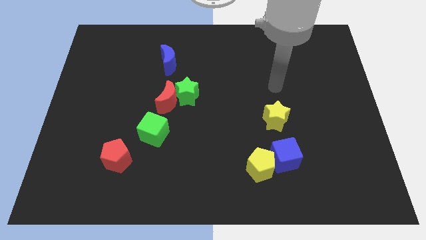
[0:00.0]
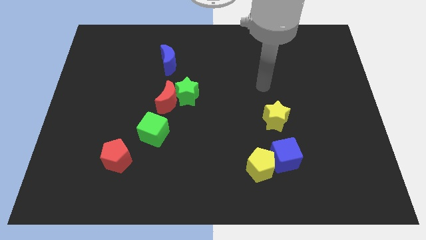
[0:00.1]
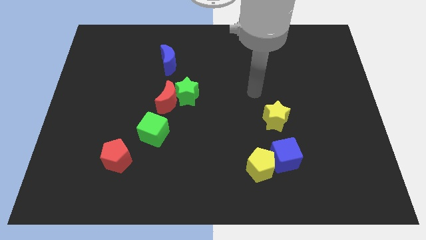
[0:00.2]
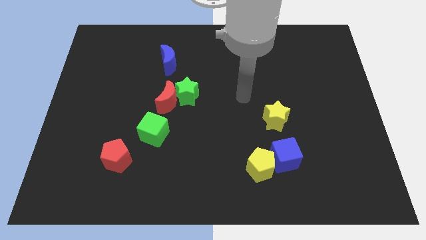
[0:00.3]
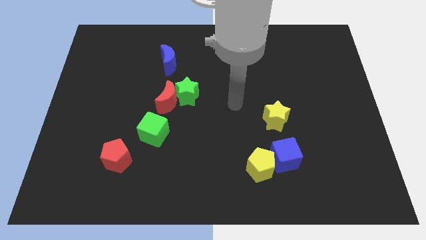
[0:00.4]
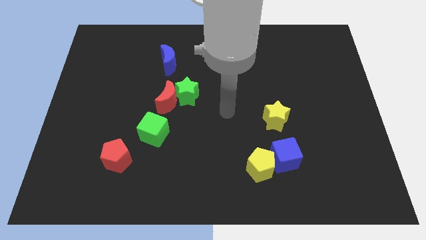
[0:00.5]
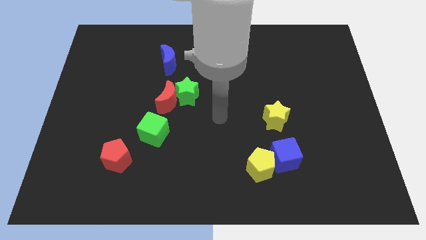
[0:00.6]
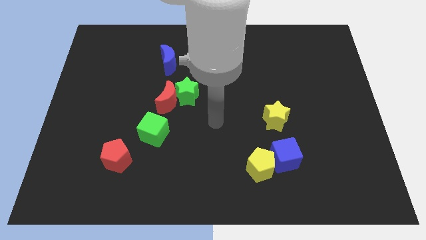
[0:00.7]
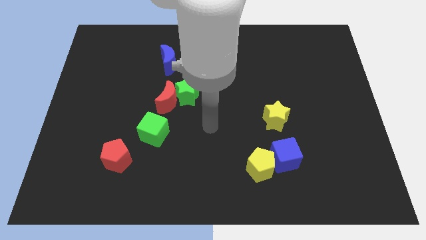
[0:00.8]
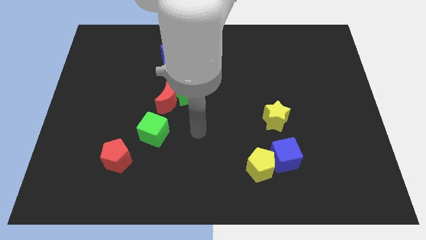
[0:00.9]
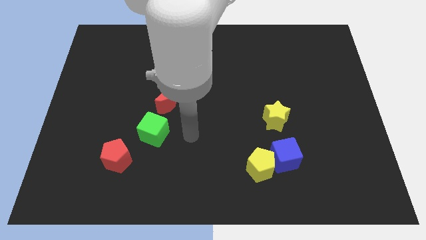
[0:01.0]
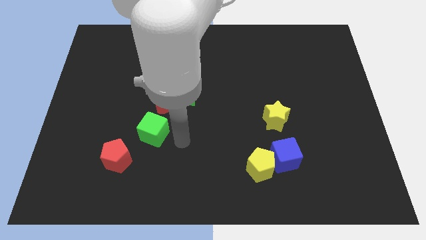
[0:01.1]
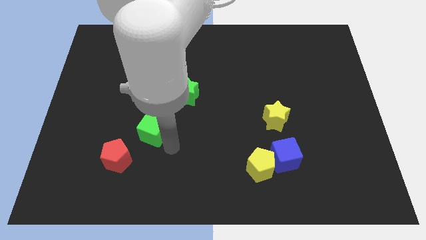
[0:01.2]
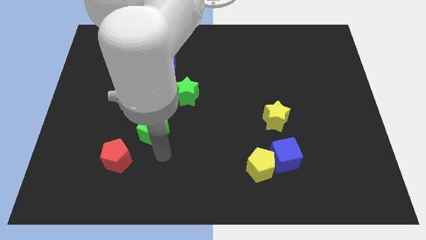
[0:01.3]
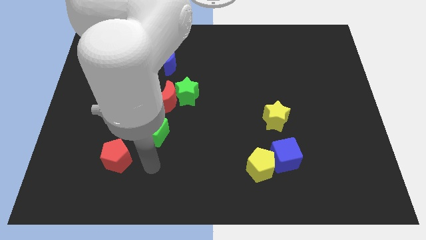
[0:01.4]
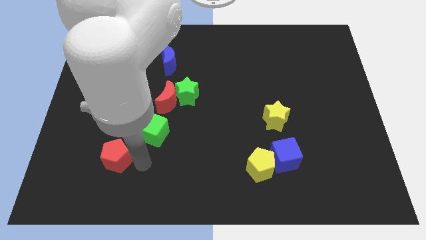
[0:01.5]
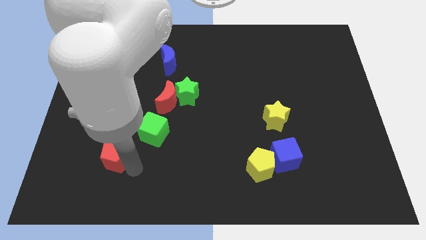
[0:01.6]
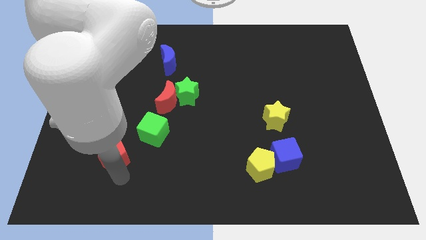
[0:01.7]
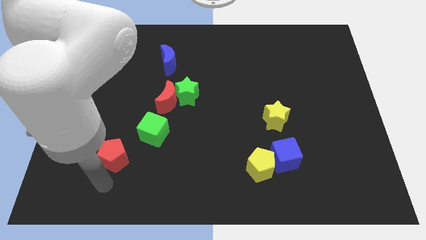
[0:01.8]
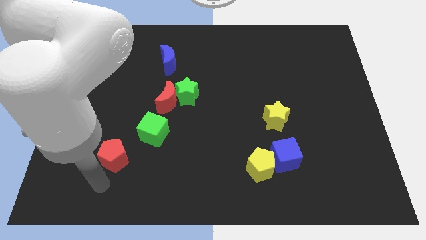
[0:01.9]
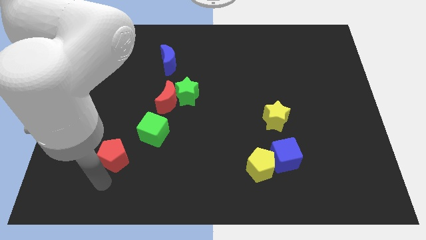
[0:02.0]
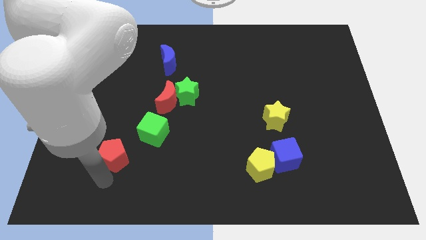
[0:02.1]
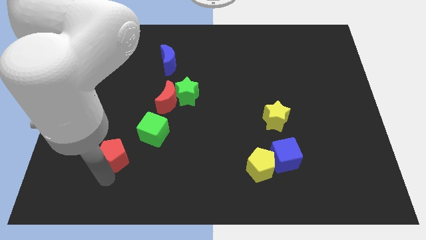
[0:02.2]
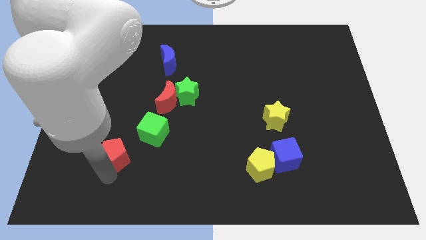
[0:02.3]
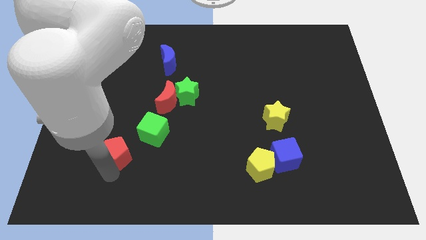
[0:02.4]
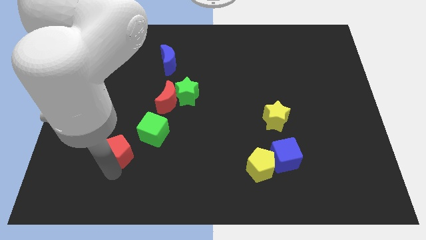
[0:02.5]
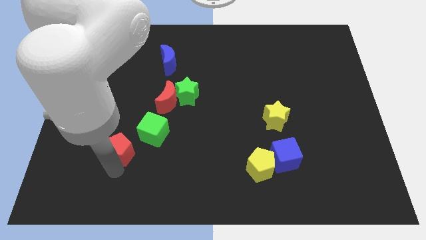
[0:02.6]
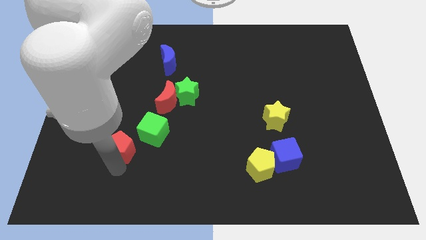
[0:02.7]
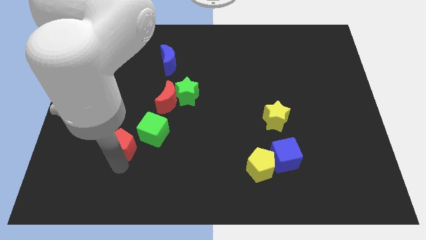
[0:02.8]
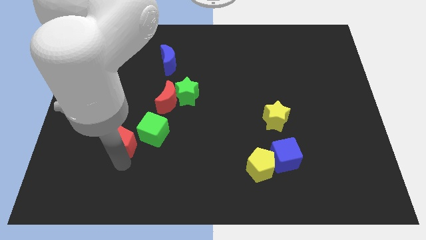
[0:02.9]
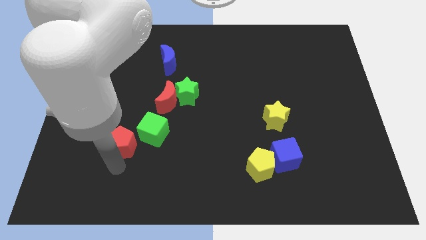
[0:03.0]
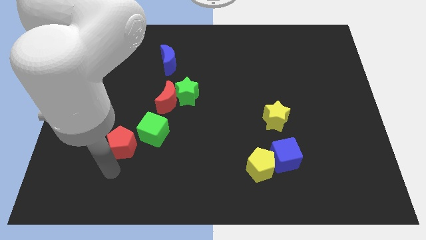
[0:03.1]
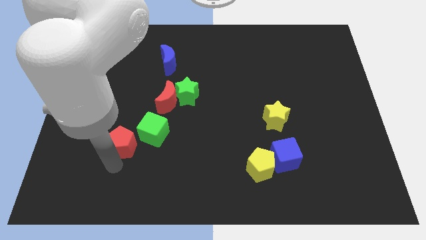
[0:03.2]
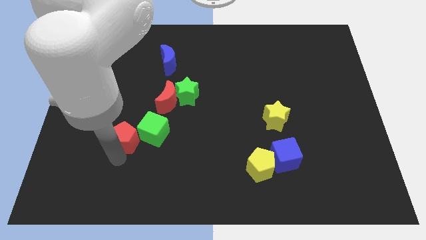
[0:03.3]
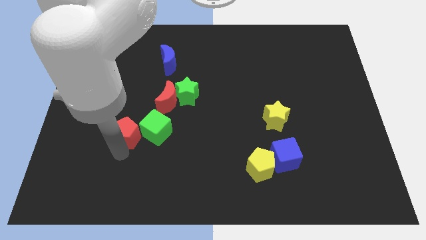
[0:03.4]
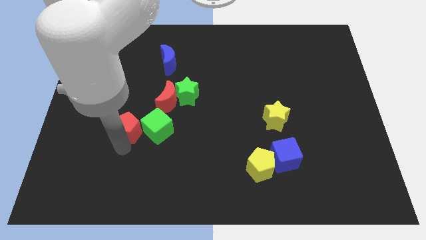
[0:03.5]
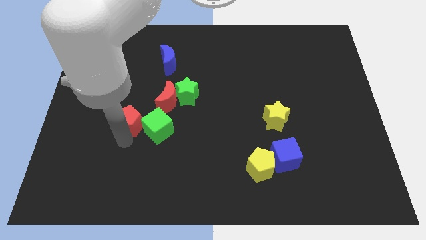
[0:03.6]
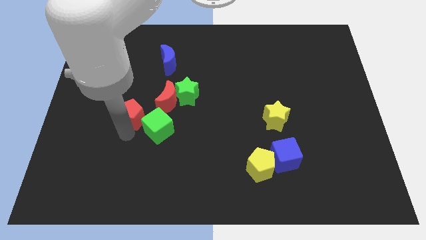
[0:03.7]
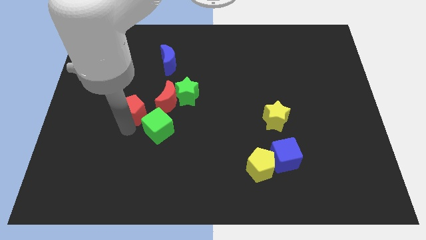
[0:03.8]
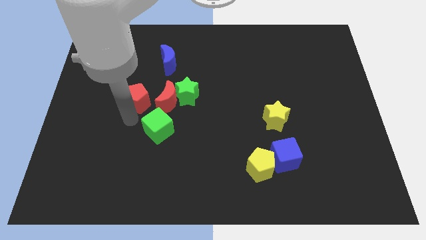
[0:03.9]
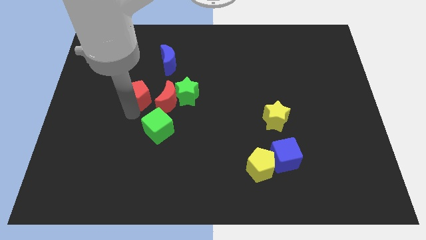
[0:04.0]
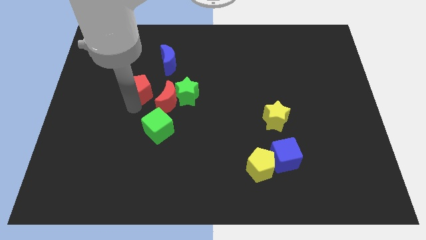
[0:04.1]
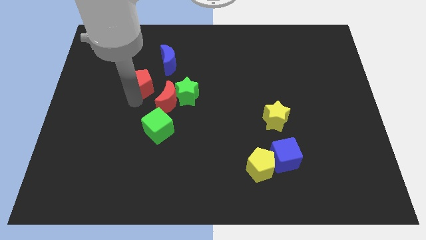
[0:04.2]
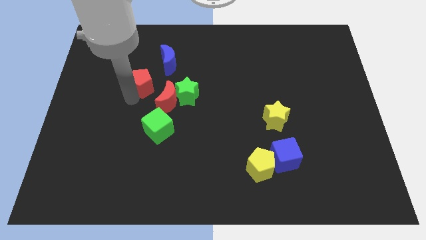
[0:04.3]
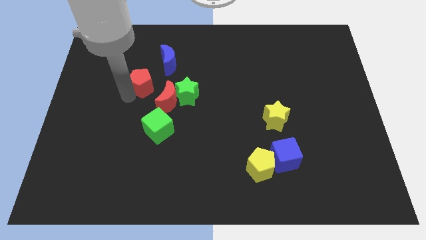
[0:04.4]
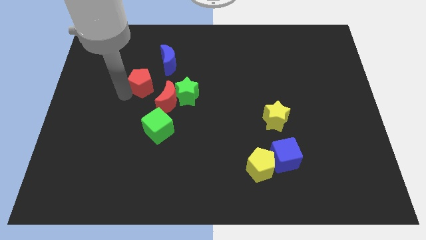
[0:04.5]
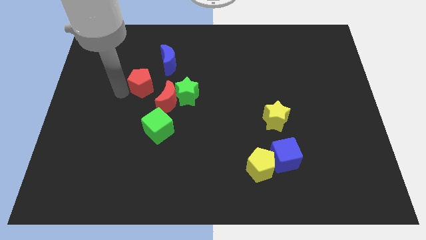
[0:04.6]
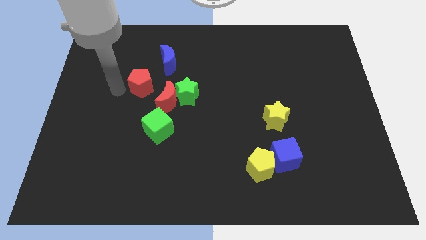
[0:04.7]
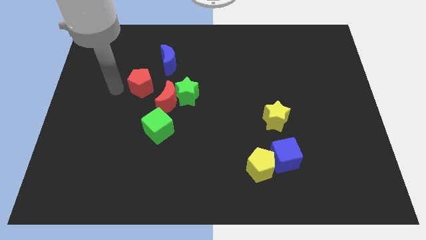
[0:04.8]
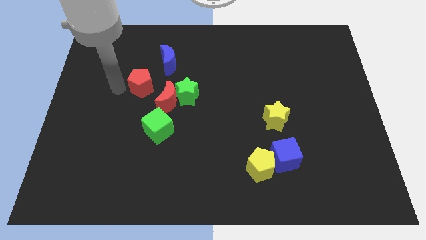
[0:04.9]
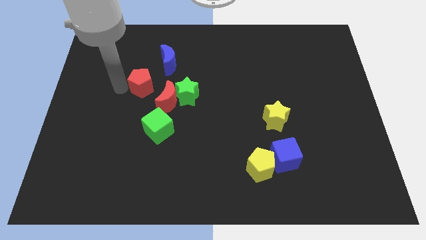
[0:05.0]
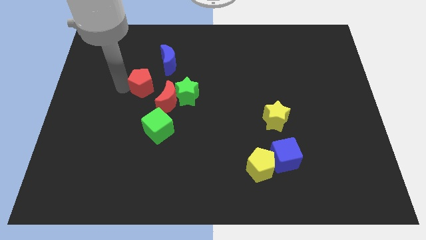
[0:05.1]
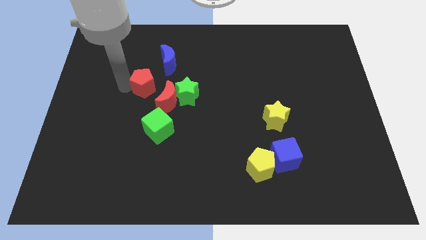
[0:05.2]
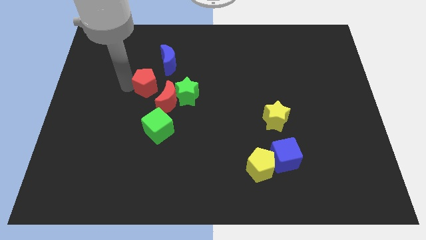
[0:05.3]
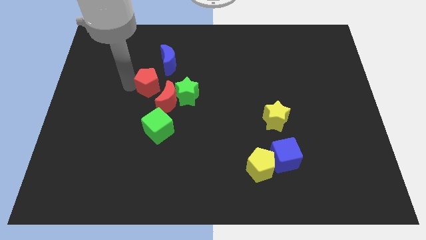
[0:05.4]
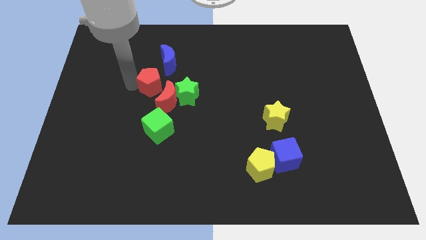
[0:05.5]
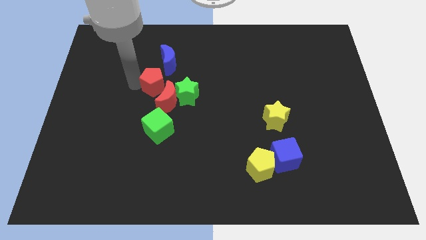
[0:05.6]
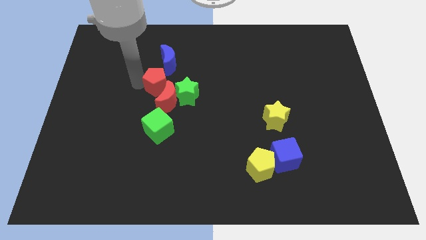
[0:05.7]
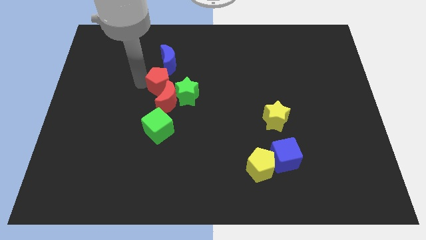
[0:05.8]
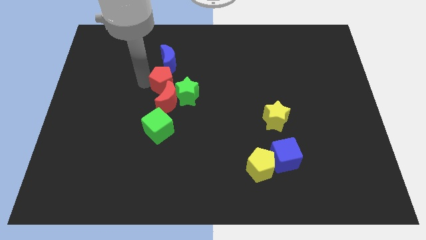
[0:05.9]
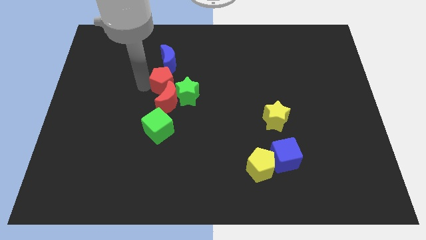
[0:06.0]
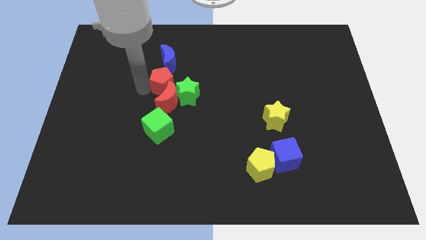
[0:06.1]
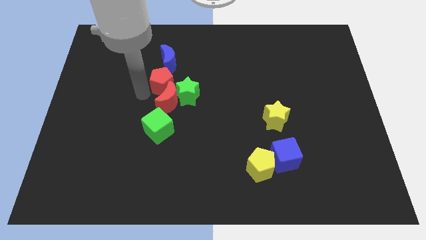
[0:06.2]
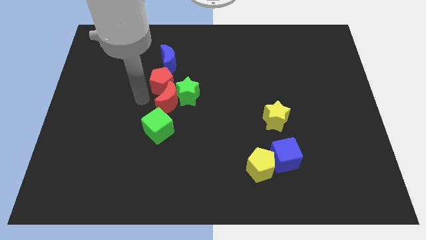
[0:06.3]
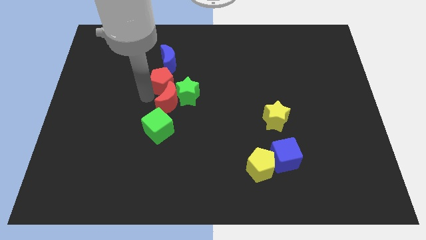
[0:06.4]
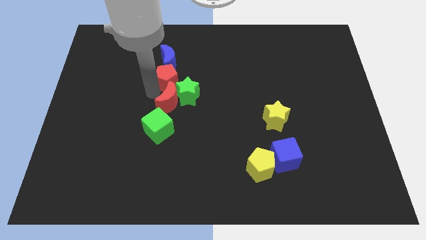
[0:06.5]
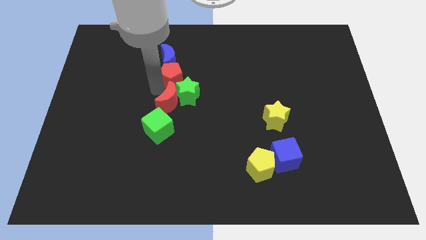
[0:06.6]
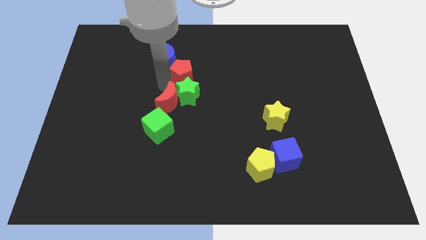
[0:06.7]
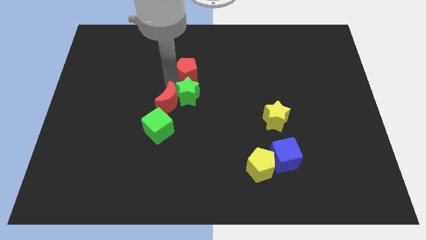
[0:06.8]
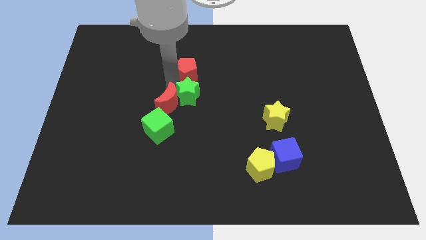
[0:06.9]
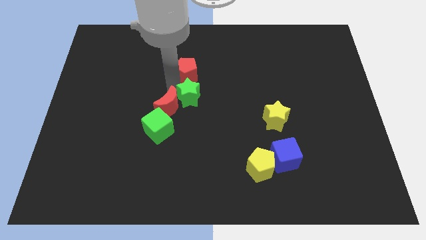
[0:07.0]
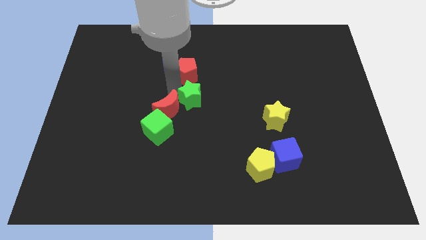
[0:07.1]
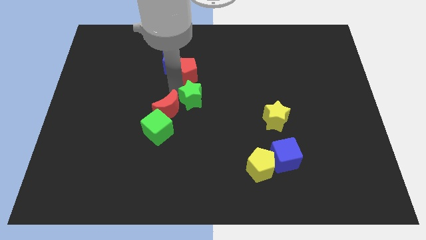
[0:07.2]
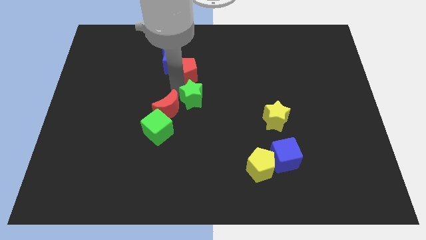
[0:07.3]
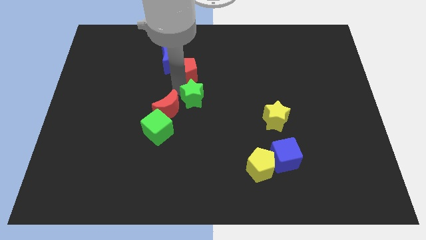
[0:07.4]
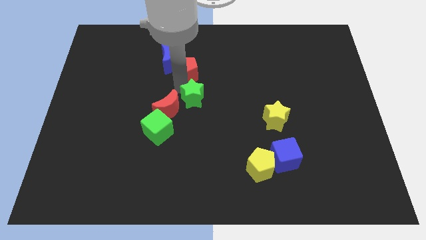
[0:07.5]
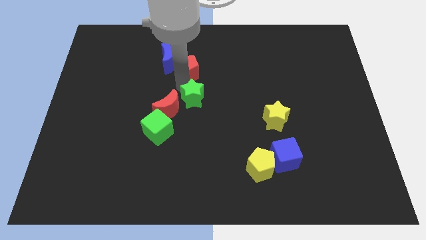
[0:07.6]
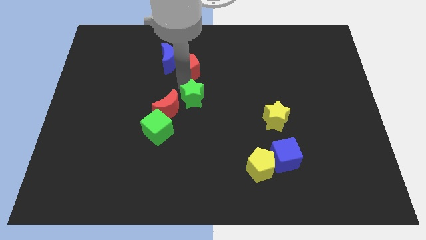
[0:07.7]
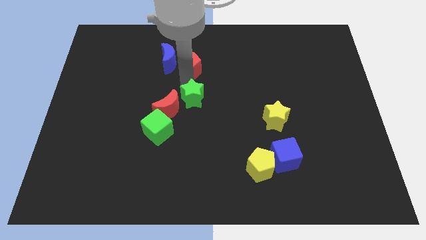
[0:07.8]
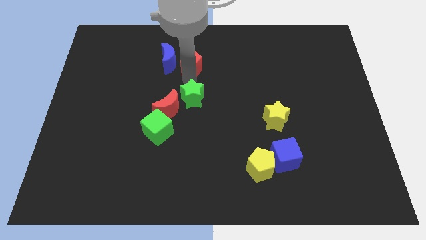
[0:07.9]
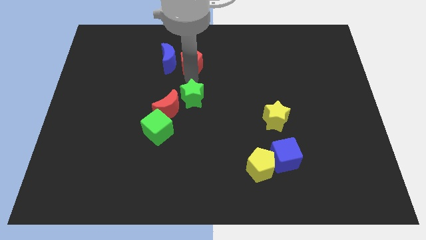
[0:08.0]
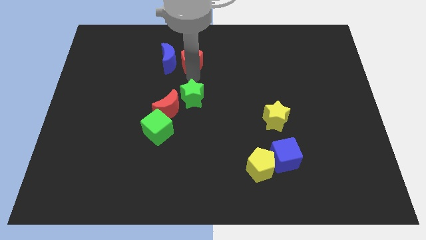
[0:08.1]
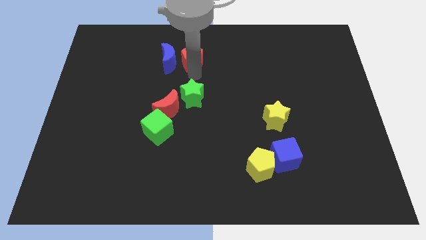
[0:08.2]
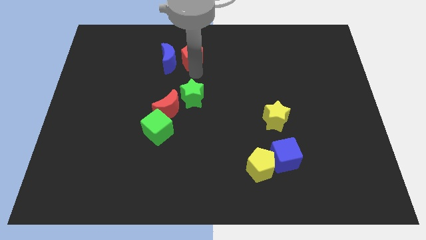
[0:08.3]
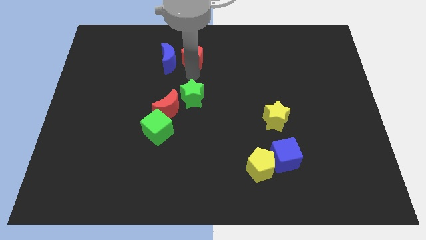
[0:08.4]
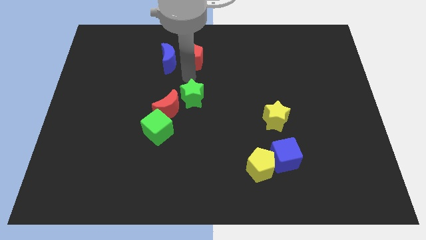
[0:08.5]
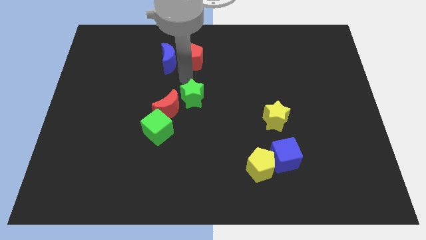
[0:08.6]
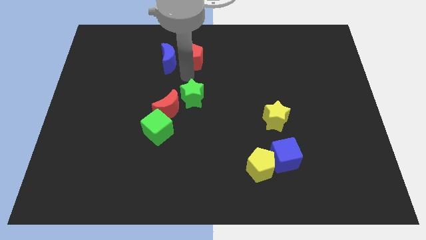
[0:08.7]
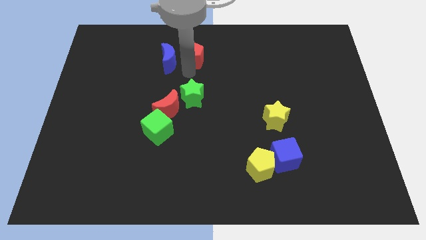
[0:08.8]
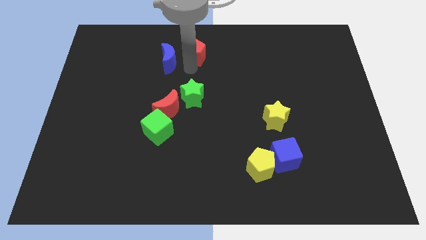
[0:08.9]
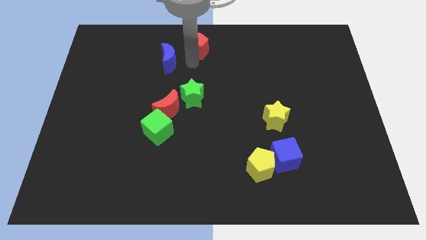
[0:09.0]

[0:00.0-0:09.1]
move the red pentagon to the top side
